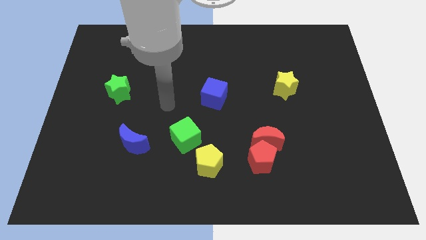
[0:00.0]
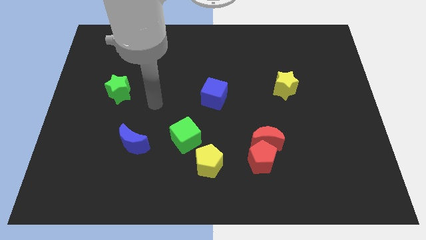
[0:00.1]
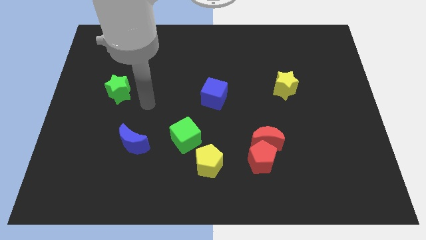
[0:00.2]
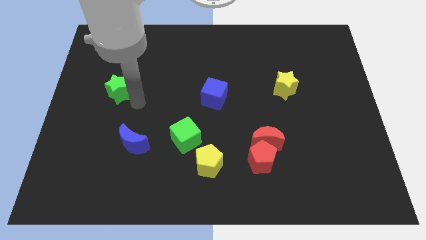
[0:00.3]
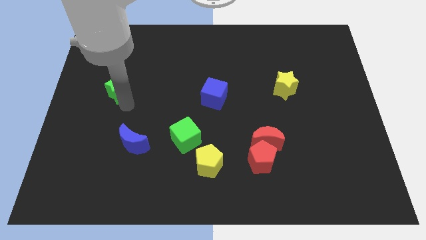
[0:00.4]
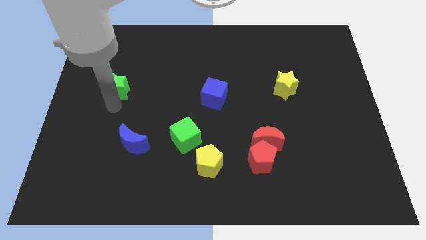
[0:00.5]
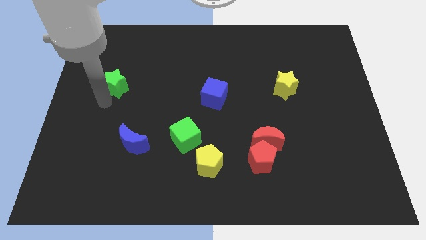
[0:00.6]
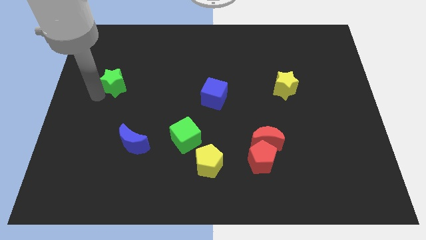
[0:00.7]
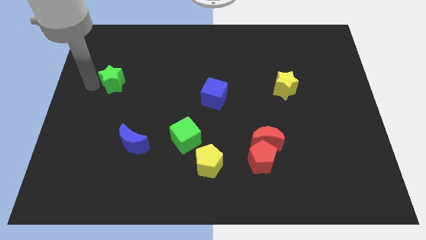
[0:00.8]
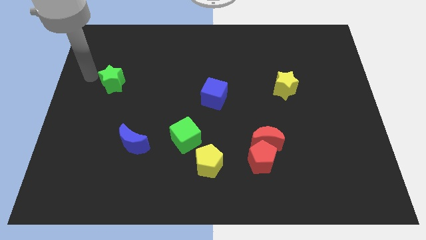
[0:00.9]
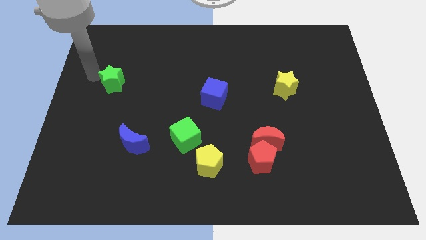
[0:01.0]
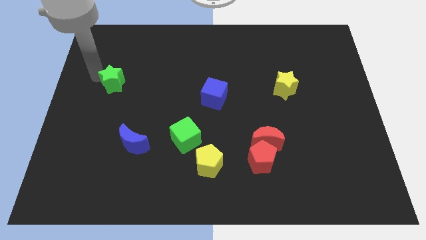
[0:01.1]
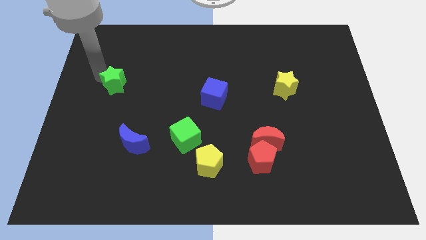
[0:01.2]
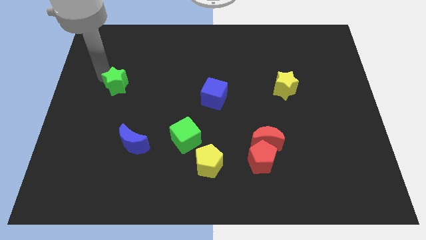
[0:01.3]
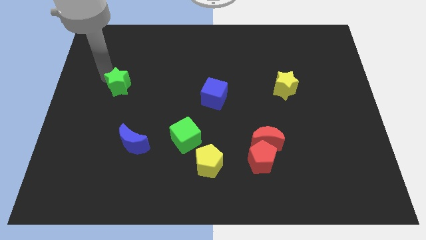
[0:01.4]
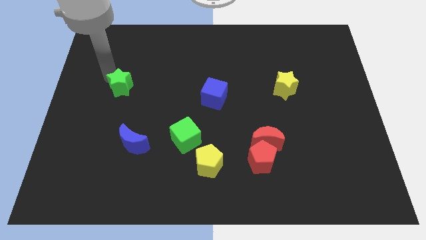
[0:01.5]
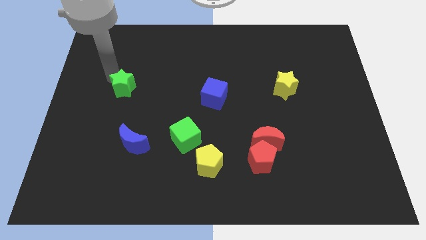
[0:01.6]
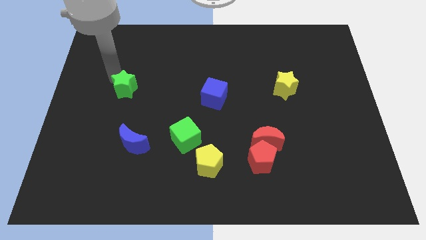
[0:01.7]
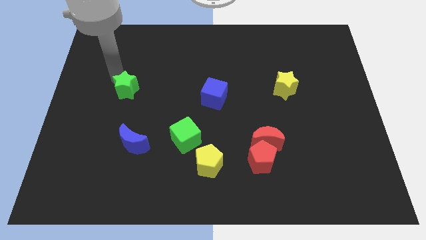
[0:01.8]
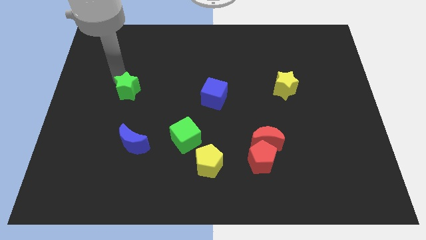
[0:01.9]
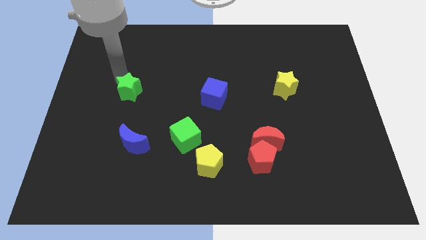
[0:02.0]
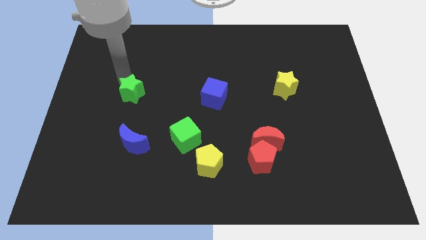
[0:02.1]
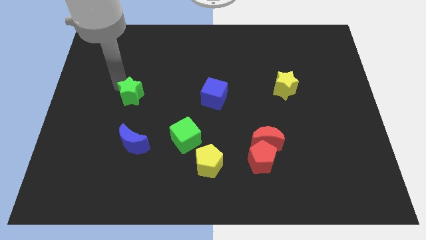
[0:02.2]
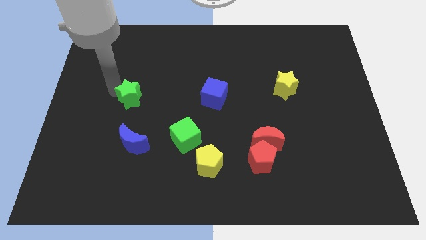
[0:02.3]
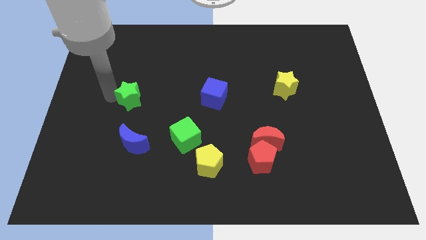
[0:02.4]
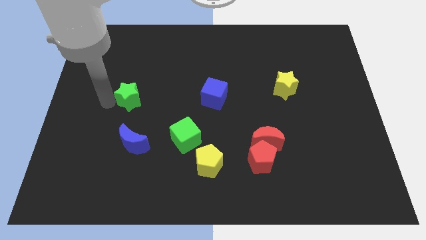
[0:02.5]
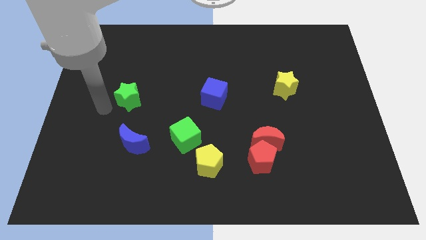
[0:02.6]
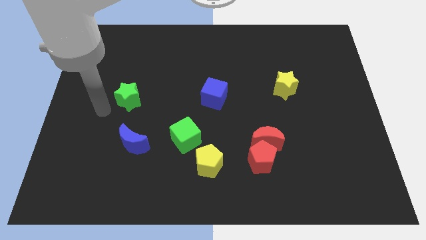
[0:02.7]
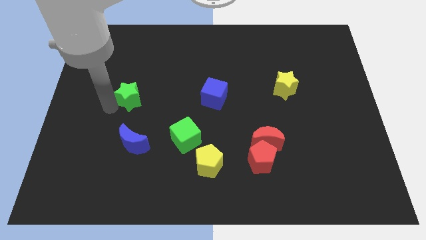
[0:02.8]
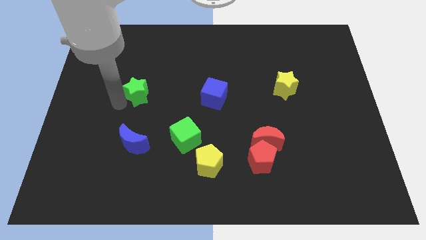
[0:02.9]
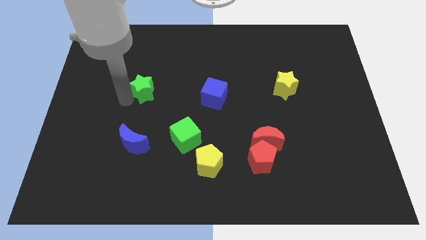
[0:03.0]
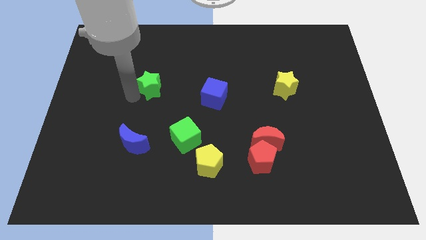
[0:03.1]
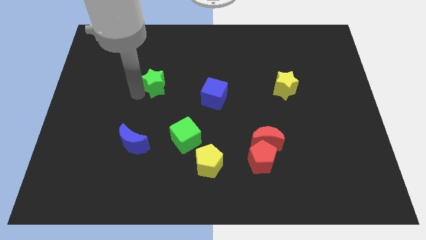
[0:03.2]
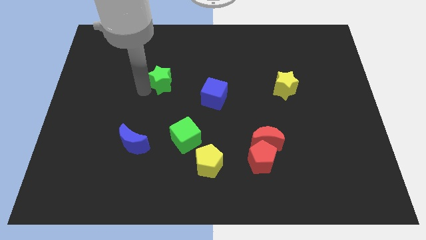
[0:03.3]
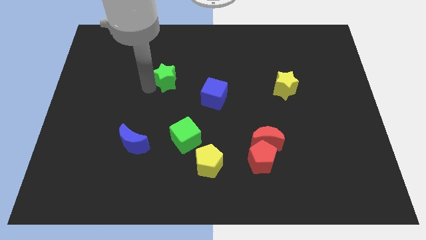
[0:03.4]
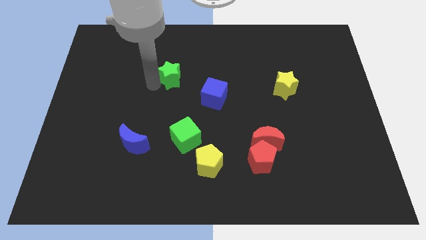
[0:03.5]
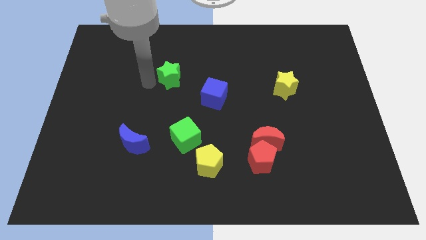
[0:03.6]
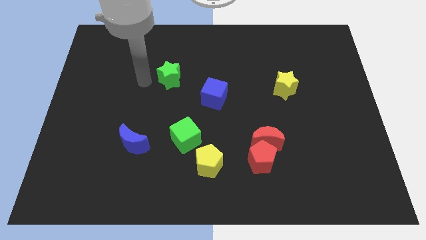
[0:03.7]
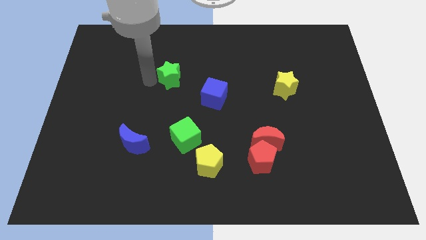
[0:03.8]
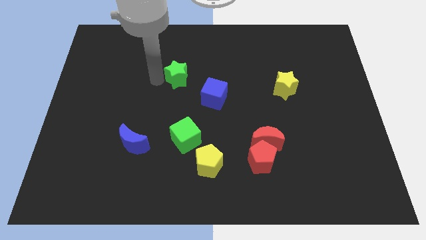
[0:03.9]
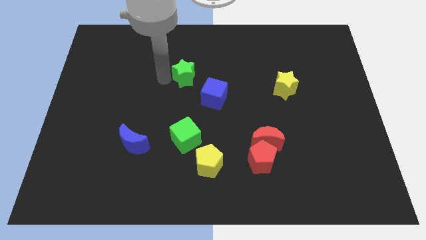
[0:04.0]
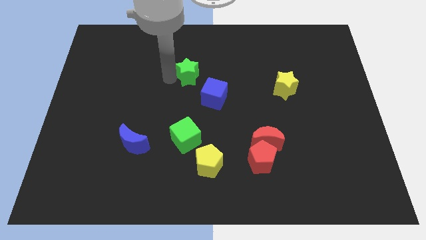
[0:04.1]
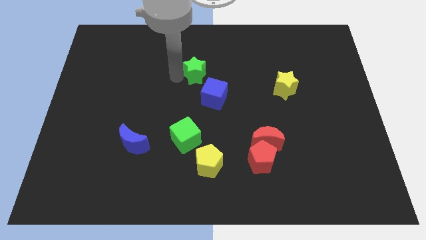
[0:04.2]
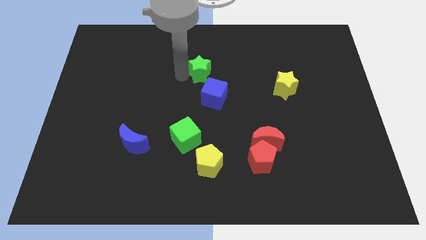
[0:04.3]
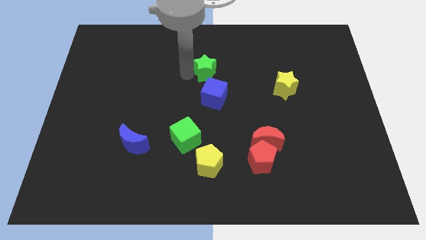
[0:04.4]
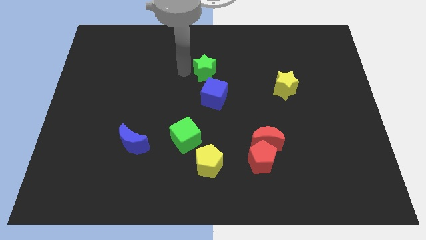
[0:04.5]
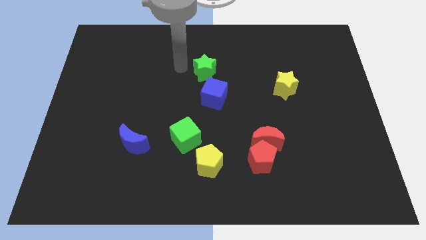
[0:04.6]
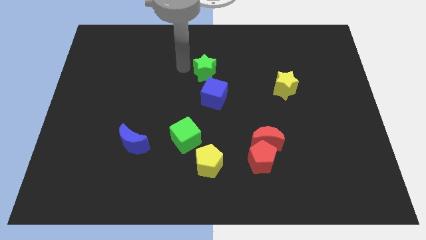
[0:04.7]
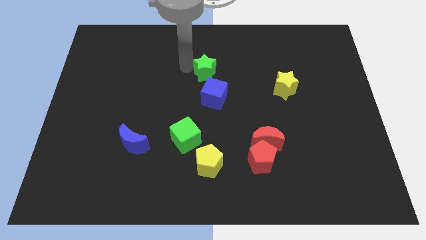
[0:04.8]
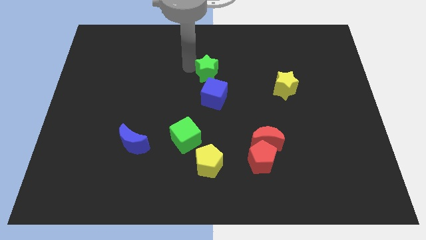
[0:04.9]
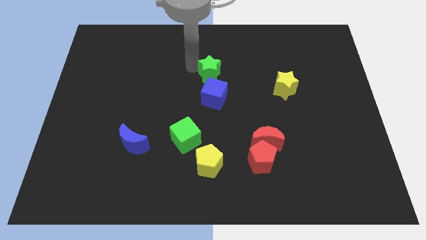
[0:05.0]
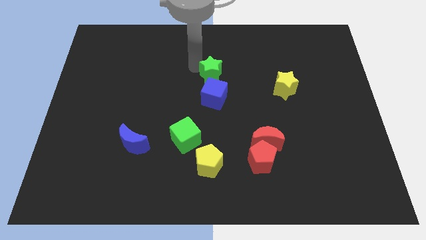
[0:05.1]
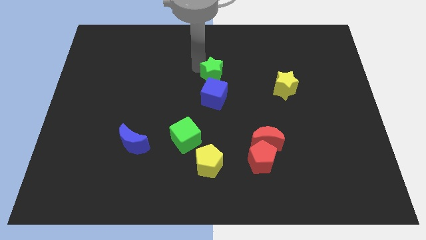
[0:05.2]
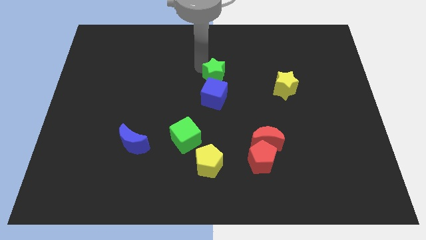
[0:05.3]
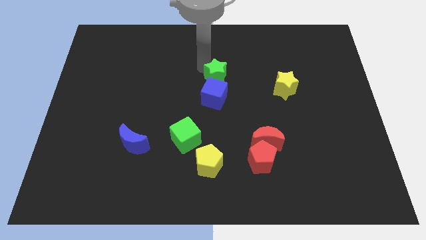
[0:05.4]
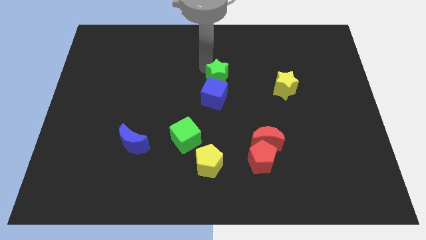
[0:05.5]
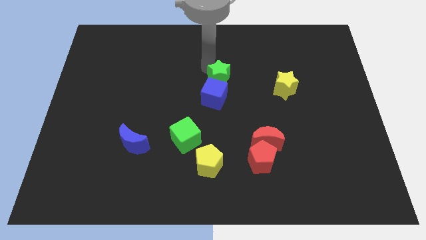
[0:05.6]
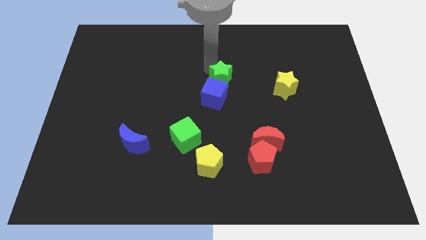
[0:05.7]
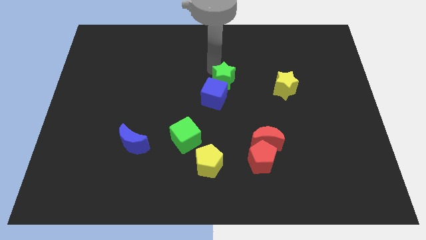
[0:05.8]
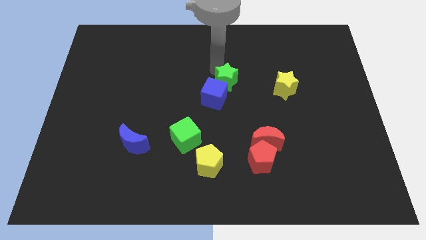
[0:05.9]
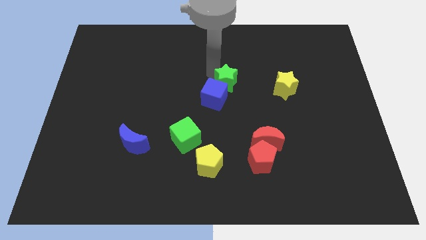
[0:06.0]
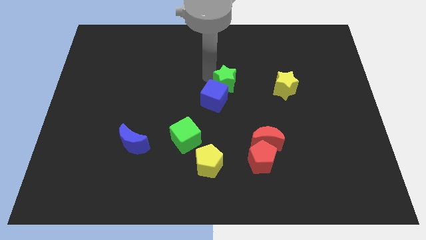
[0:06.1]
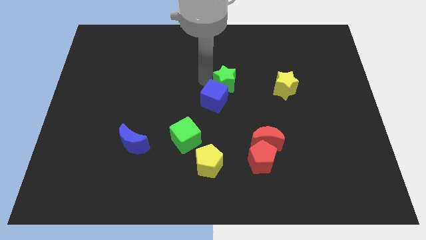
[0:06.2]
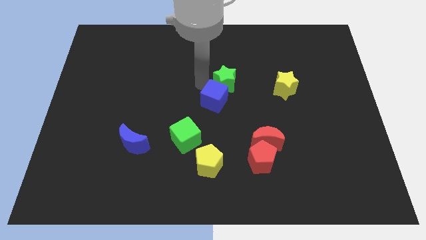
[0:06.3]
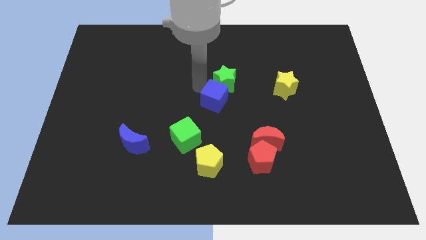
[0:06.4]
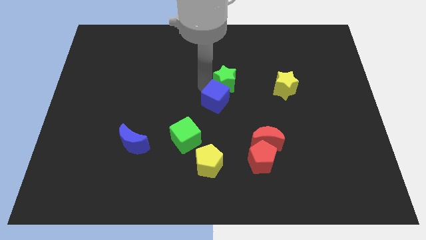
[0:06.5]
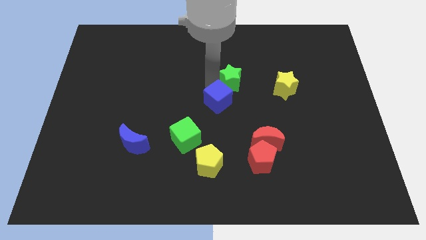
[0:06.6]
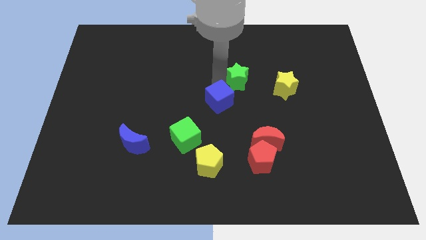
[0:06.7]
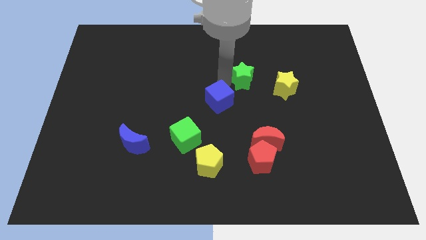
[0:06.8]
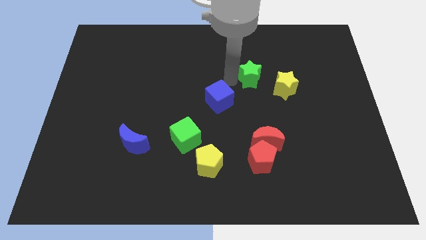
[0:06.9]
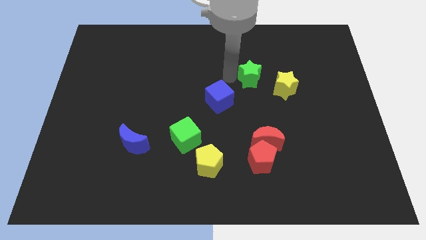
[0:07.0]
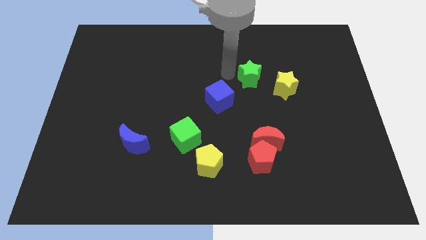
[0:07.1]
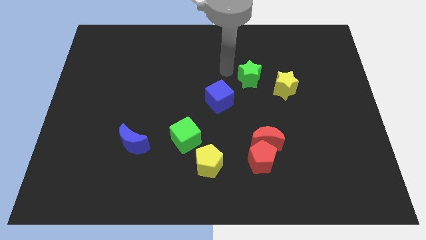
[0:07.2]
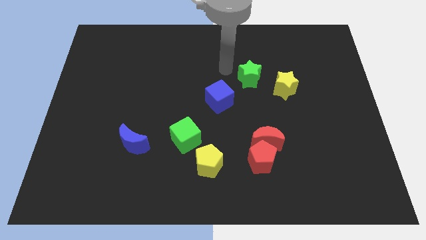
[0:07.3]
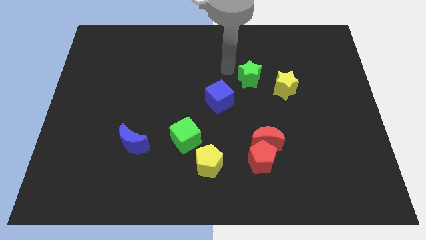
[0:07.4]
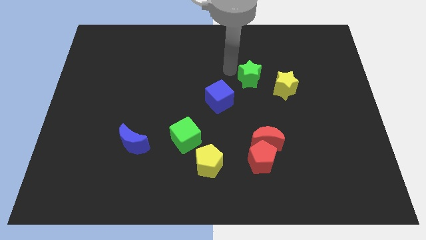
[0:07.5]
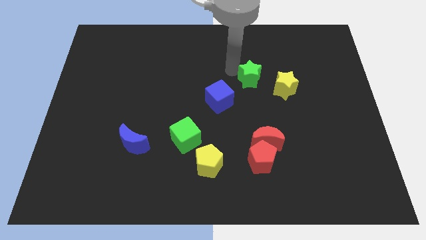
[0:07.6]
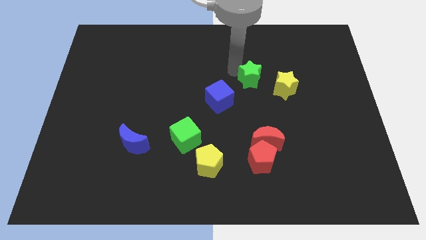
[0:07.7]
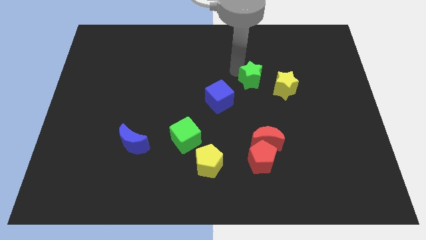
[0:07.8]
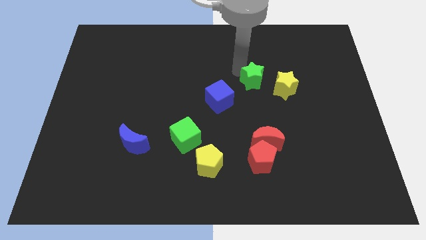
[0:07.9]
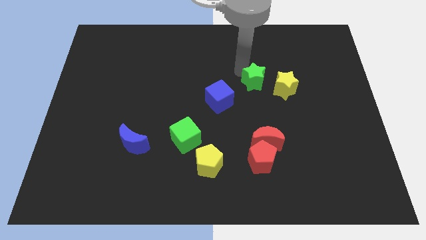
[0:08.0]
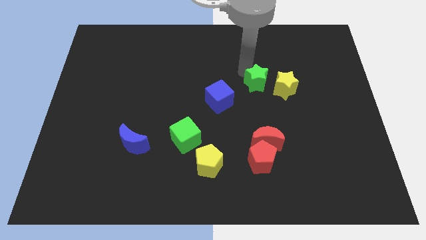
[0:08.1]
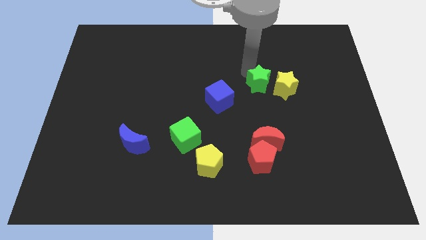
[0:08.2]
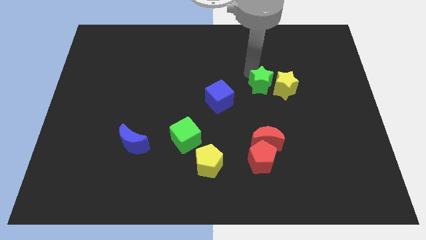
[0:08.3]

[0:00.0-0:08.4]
put the green star close to the yellow star

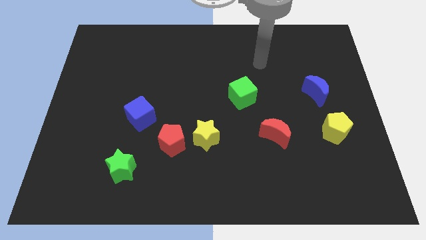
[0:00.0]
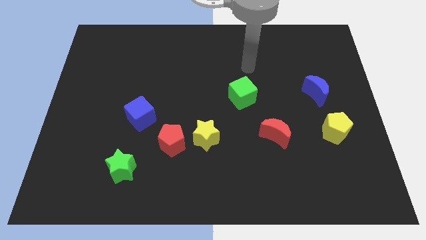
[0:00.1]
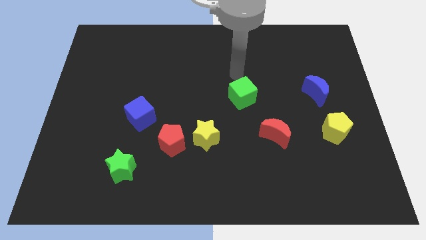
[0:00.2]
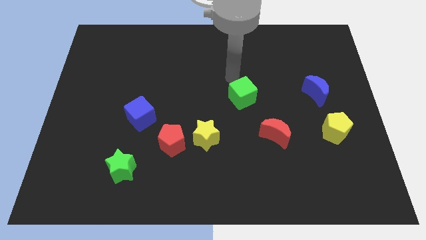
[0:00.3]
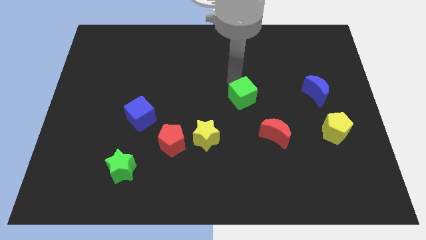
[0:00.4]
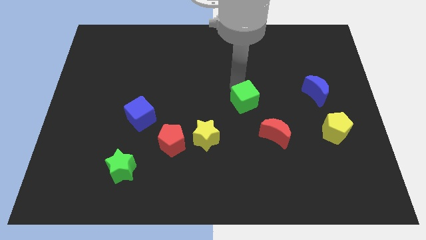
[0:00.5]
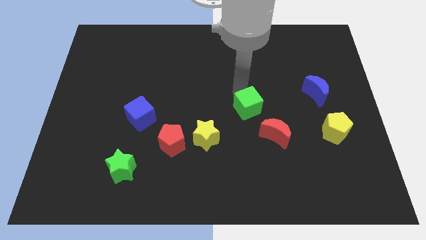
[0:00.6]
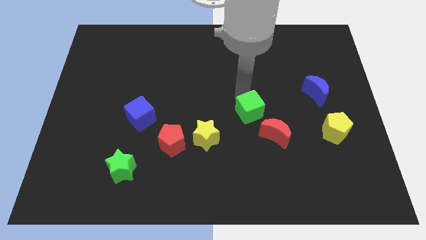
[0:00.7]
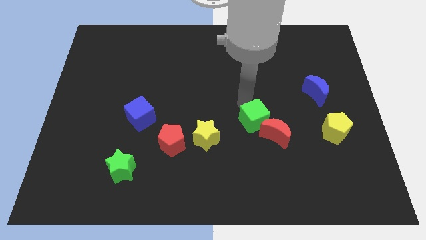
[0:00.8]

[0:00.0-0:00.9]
put the green cube close to the red moon
